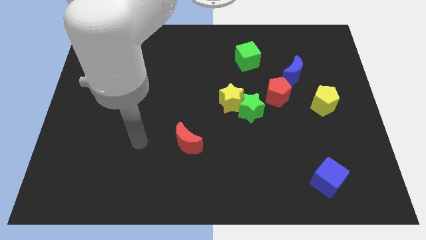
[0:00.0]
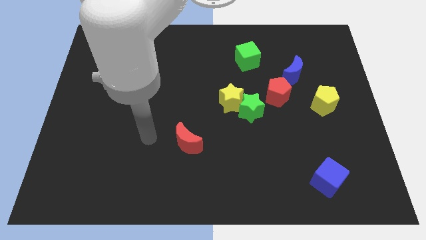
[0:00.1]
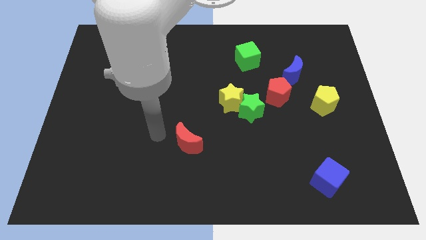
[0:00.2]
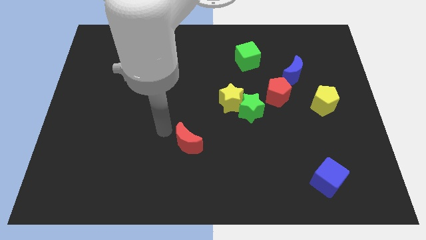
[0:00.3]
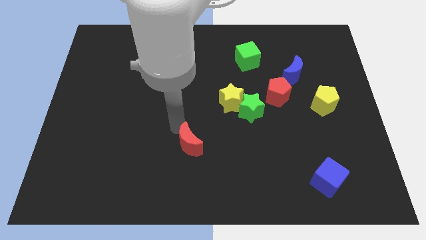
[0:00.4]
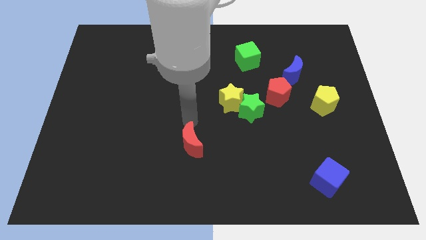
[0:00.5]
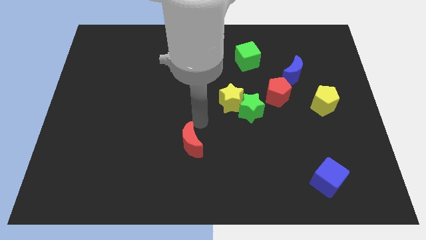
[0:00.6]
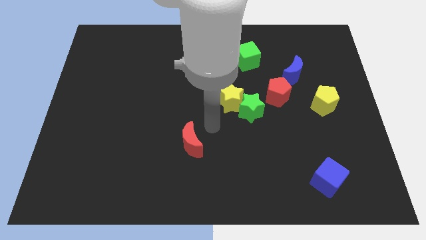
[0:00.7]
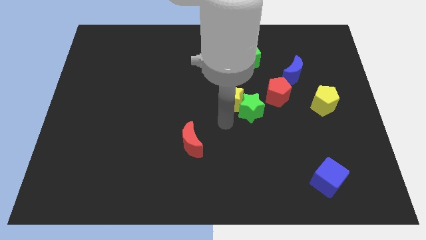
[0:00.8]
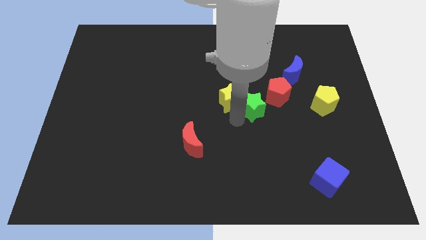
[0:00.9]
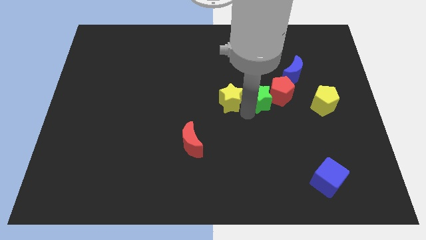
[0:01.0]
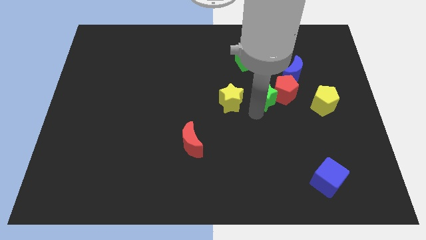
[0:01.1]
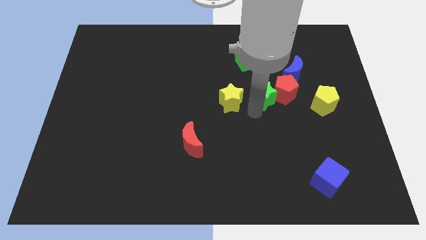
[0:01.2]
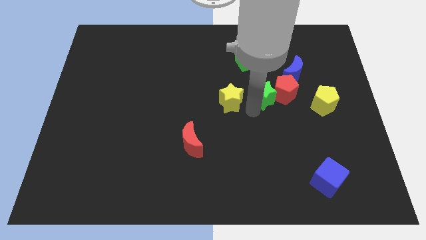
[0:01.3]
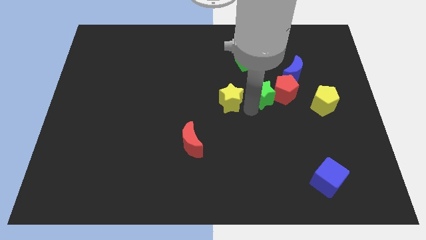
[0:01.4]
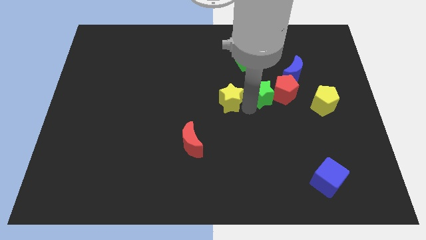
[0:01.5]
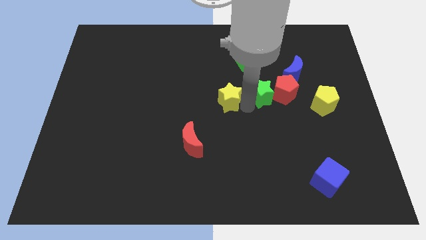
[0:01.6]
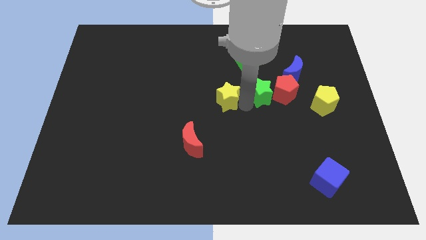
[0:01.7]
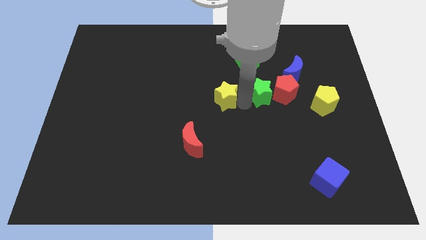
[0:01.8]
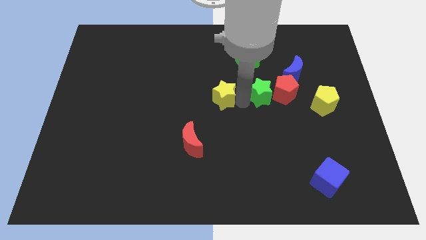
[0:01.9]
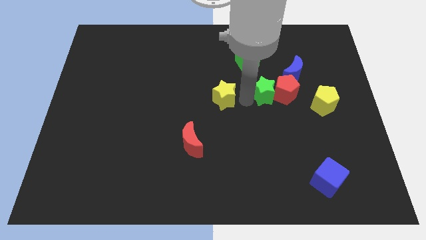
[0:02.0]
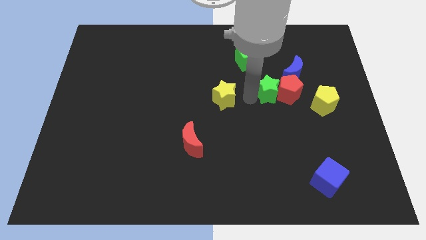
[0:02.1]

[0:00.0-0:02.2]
move the yellow star away from the green star

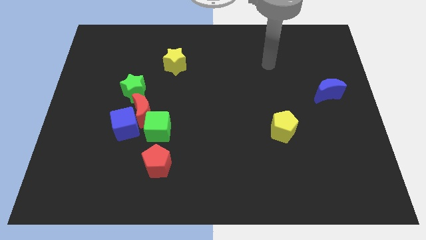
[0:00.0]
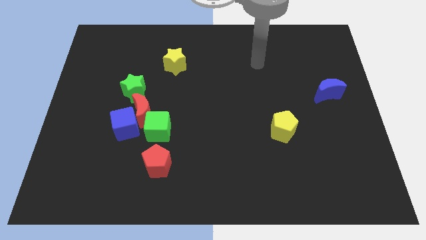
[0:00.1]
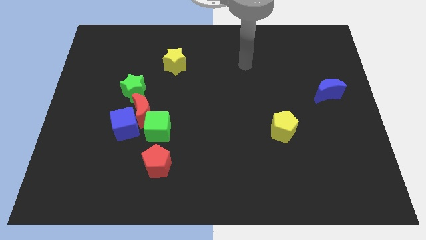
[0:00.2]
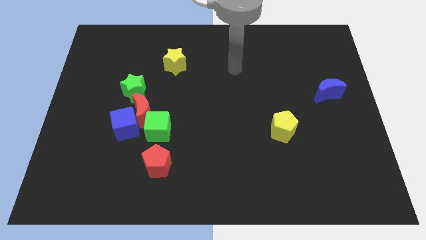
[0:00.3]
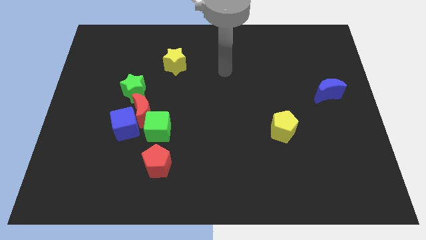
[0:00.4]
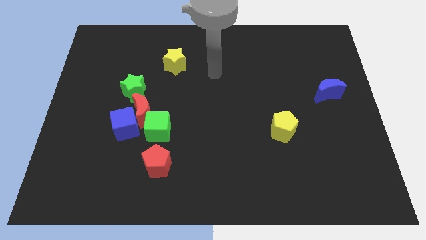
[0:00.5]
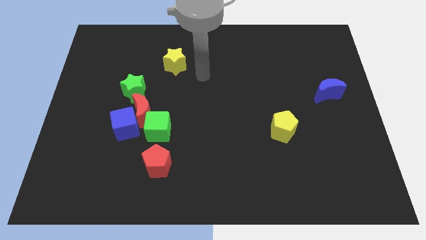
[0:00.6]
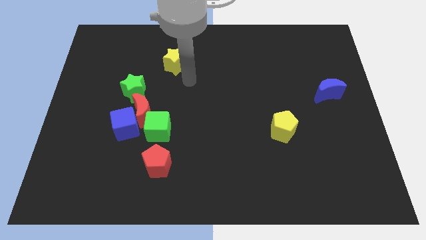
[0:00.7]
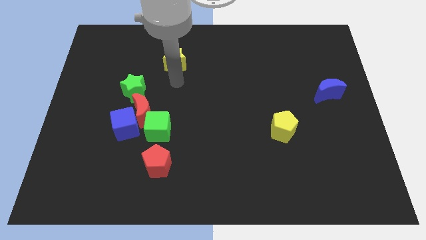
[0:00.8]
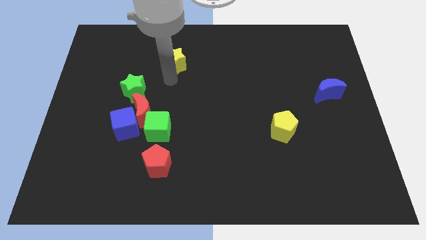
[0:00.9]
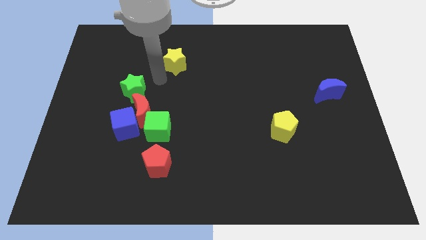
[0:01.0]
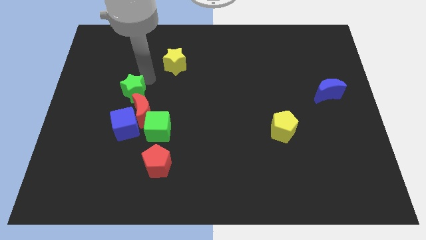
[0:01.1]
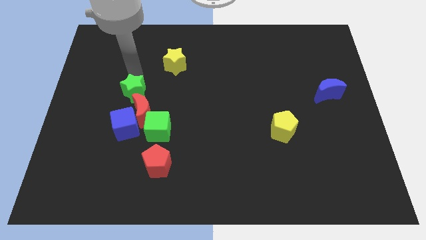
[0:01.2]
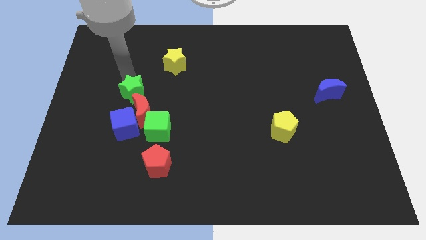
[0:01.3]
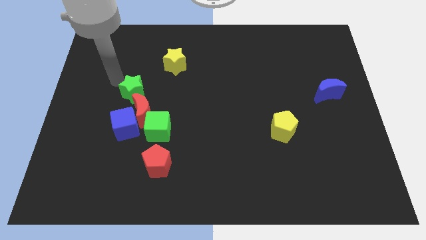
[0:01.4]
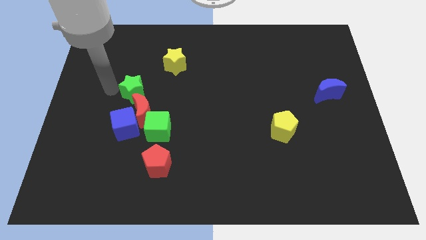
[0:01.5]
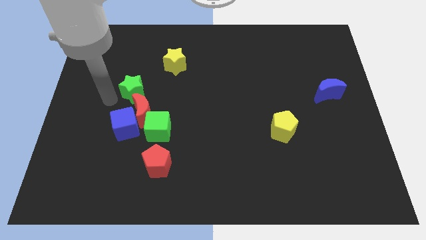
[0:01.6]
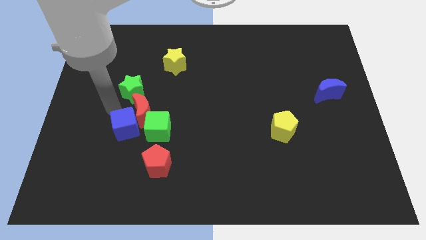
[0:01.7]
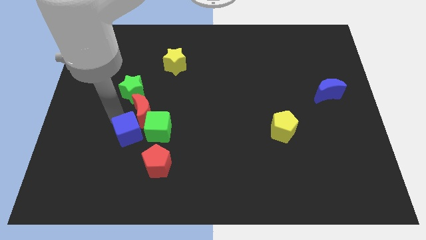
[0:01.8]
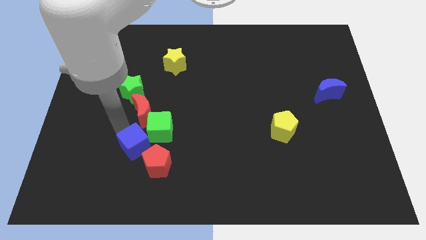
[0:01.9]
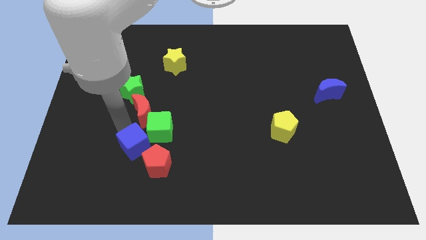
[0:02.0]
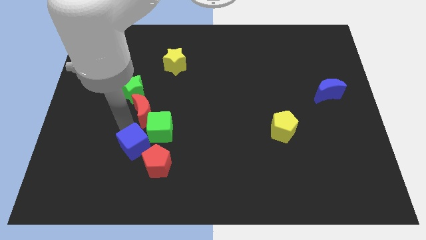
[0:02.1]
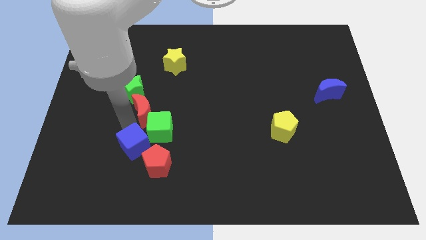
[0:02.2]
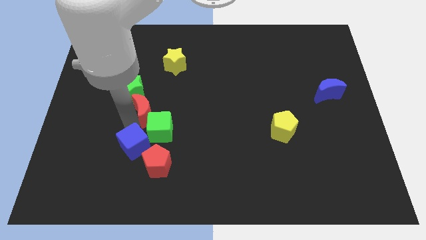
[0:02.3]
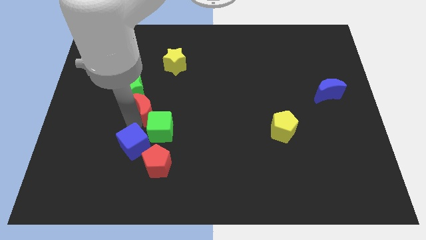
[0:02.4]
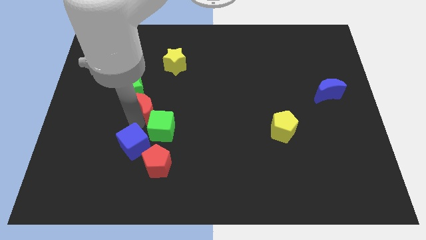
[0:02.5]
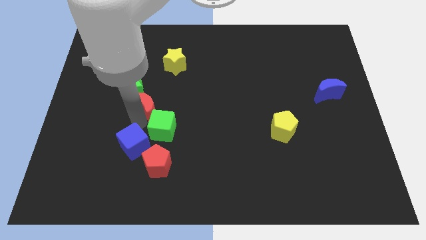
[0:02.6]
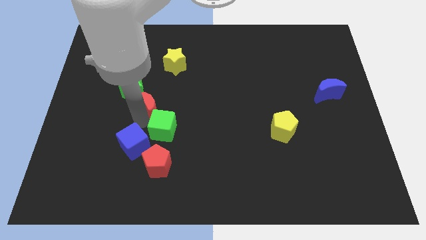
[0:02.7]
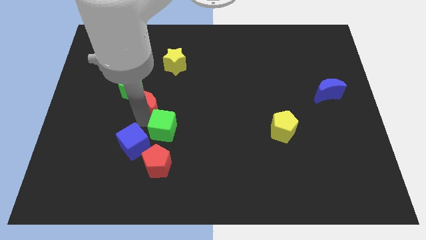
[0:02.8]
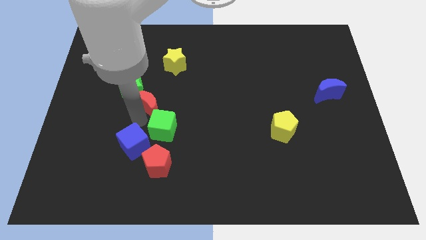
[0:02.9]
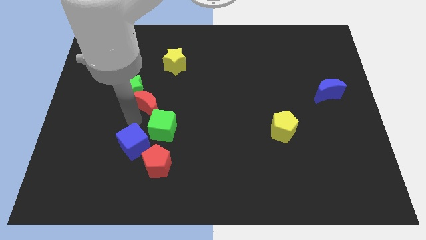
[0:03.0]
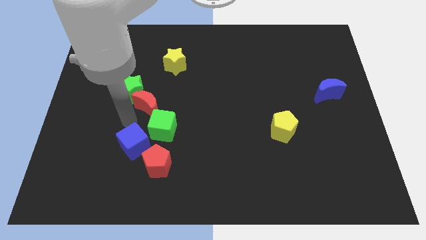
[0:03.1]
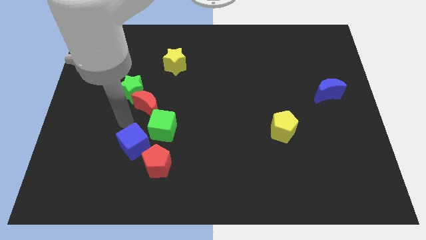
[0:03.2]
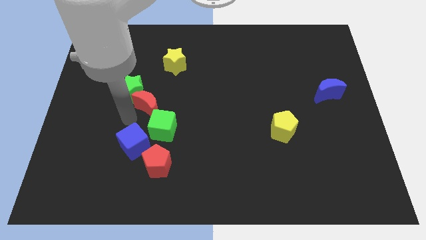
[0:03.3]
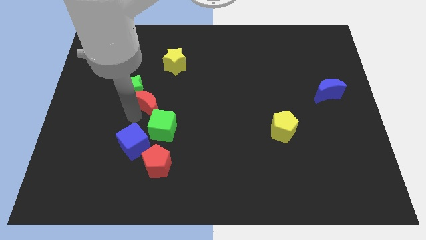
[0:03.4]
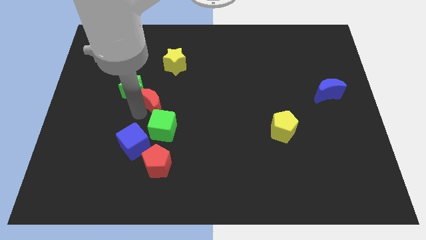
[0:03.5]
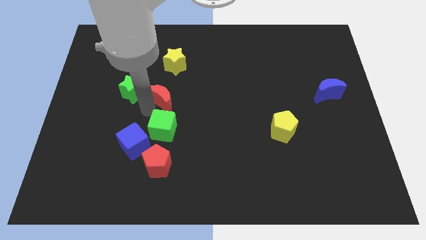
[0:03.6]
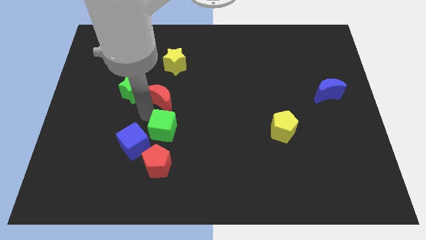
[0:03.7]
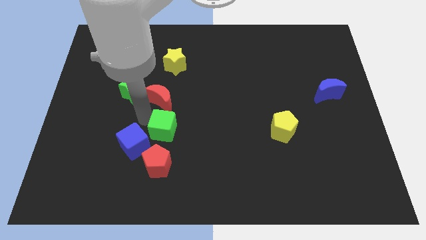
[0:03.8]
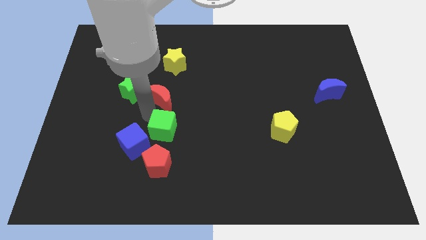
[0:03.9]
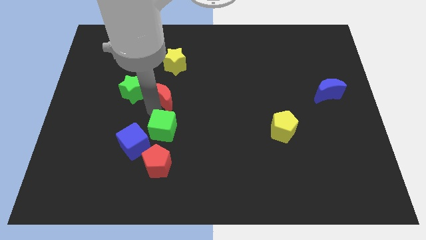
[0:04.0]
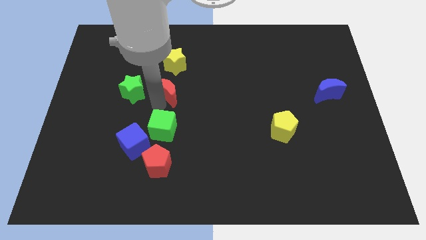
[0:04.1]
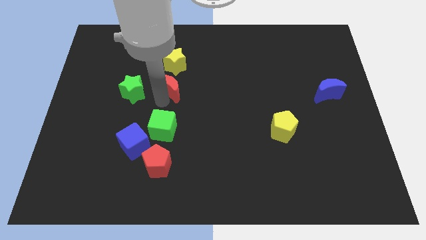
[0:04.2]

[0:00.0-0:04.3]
separate the red moon from the clump

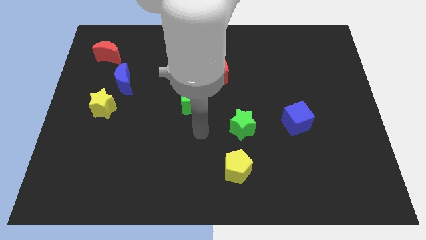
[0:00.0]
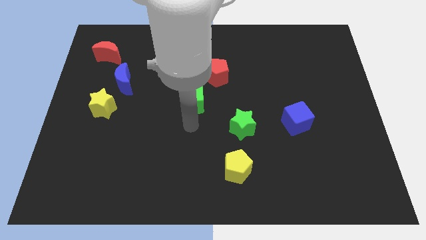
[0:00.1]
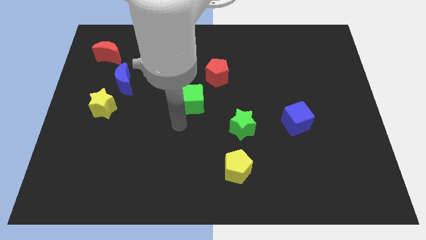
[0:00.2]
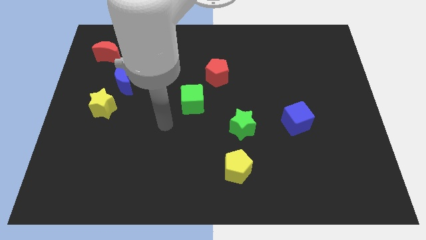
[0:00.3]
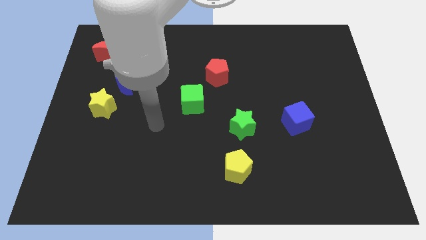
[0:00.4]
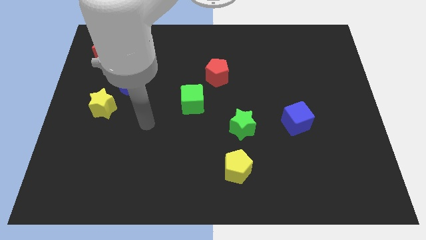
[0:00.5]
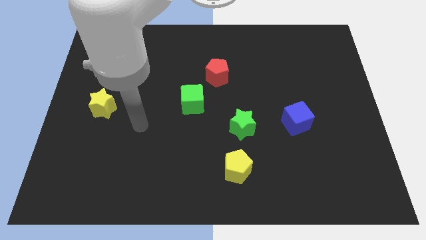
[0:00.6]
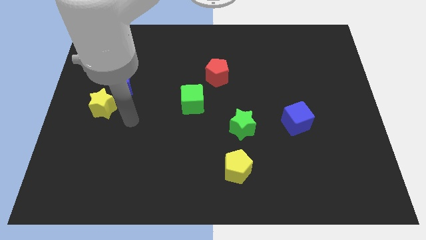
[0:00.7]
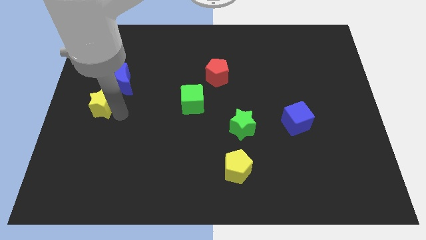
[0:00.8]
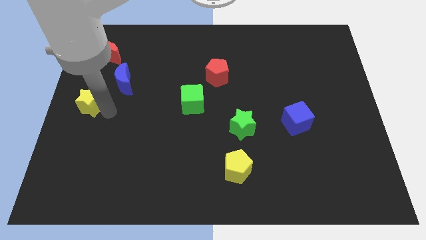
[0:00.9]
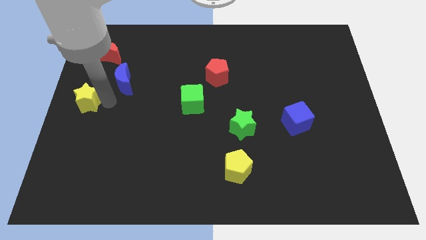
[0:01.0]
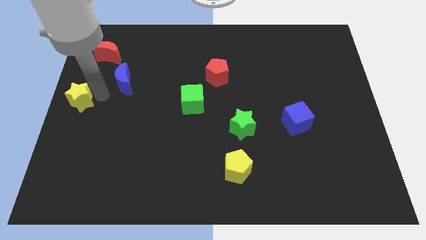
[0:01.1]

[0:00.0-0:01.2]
pull the blue moon apart from the yellow star

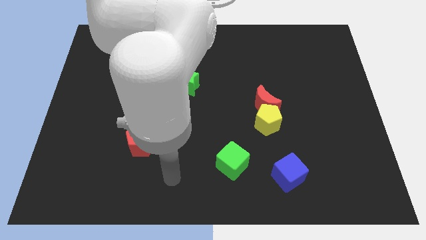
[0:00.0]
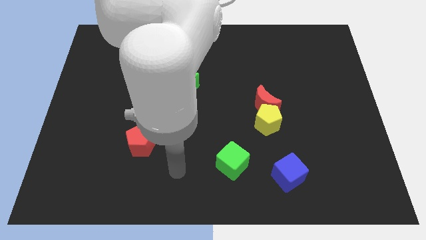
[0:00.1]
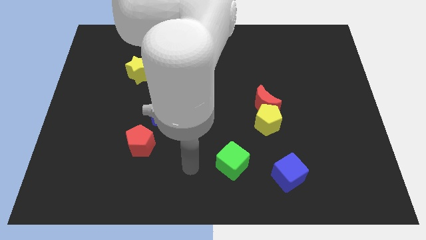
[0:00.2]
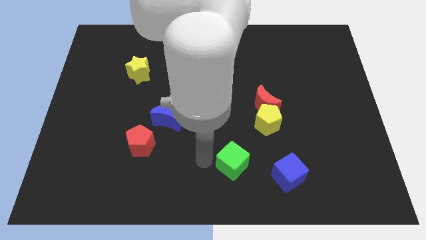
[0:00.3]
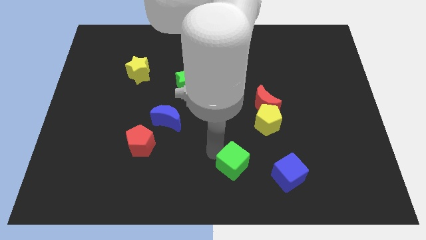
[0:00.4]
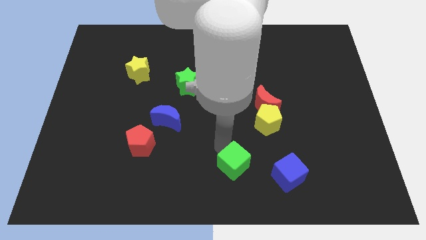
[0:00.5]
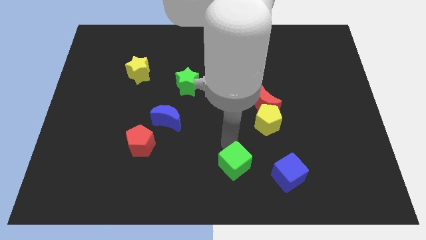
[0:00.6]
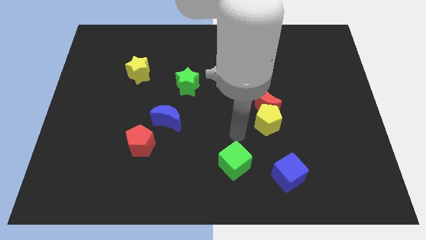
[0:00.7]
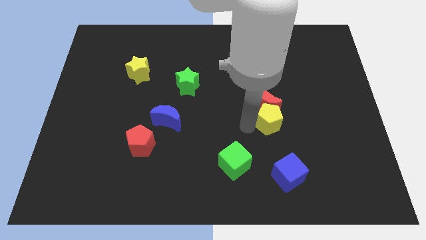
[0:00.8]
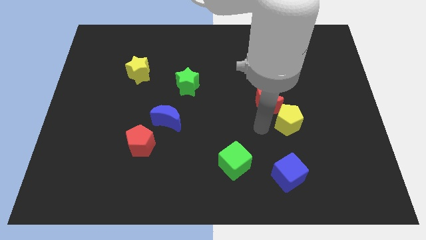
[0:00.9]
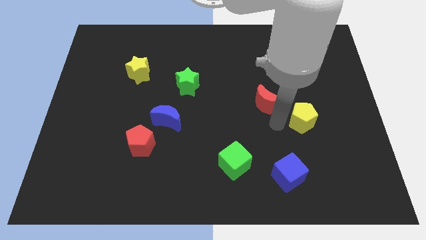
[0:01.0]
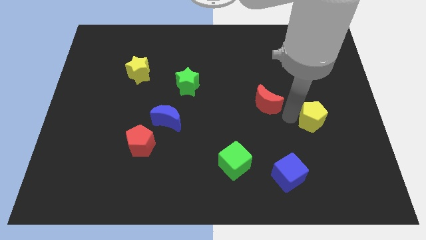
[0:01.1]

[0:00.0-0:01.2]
pull the red moon apart from the yellow pentagon

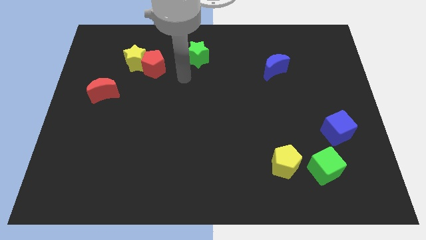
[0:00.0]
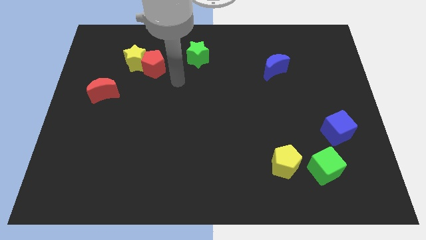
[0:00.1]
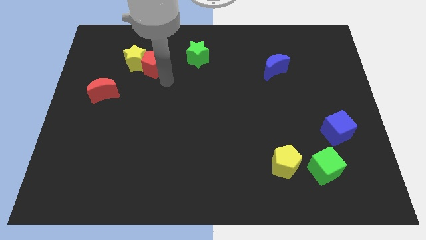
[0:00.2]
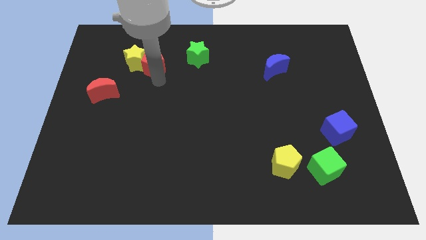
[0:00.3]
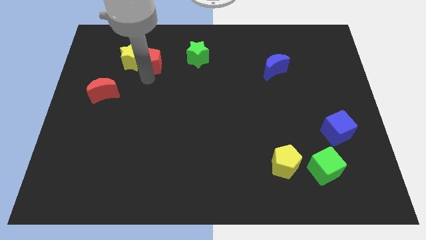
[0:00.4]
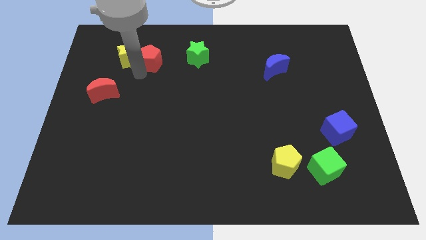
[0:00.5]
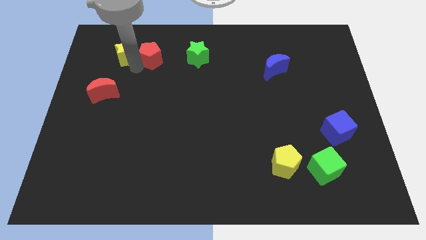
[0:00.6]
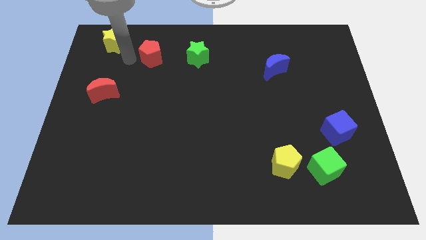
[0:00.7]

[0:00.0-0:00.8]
pull the red pentagon apart from the yellow star
